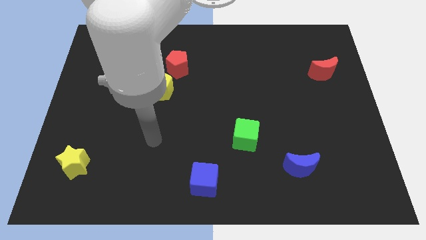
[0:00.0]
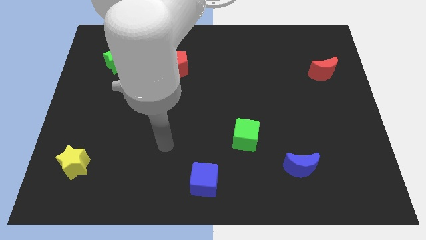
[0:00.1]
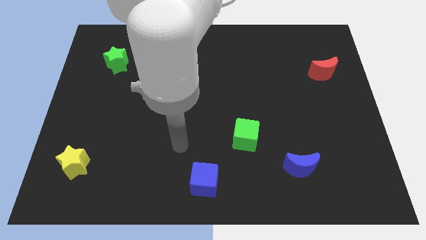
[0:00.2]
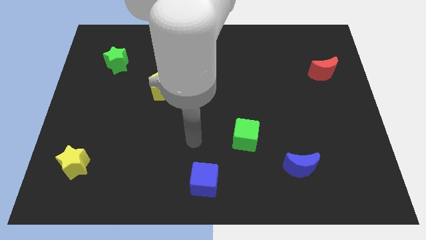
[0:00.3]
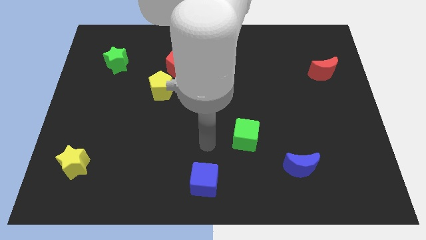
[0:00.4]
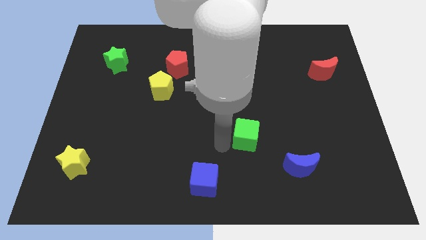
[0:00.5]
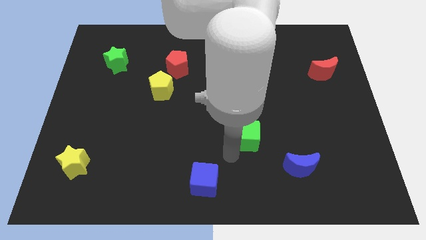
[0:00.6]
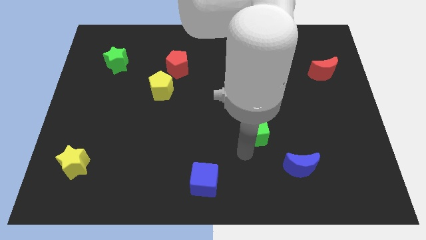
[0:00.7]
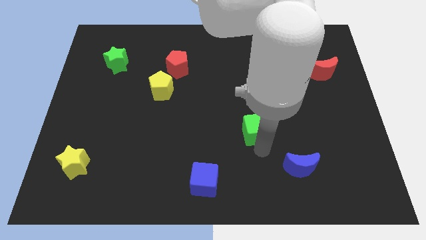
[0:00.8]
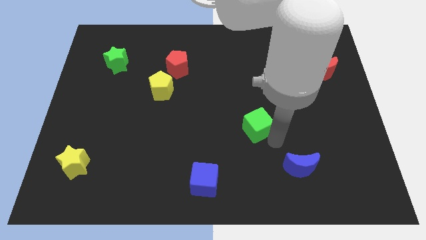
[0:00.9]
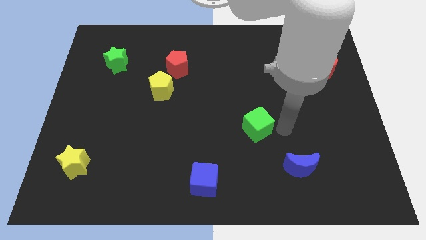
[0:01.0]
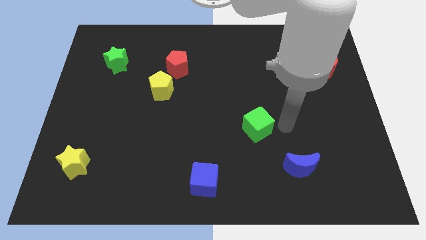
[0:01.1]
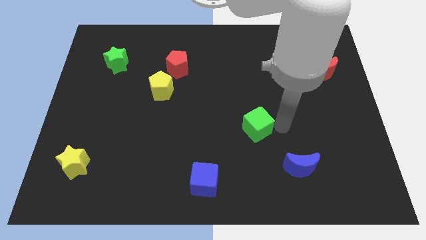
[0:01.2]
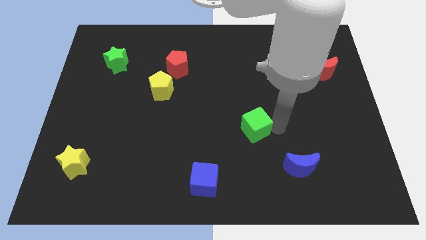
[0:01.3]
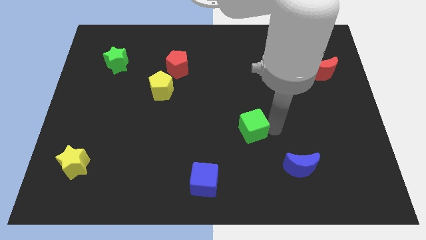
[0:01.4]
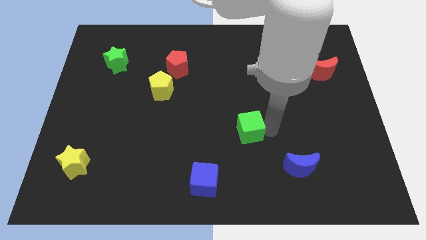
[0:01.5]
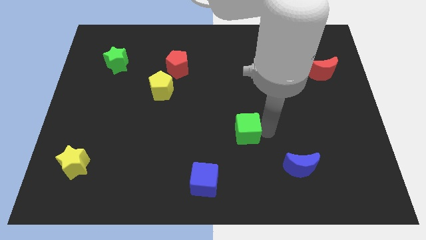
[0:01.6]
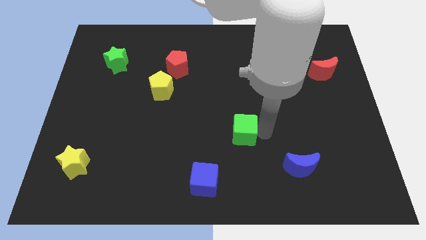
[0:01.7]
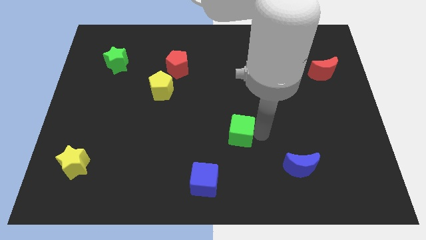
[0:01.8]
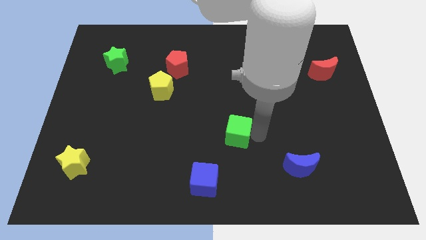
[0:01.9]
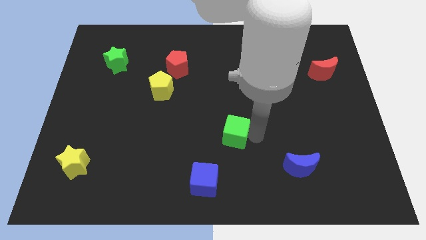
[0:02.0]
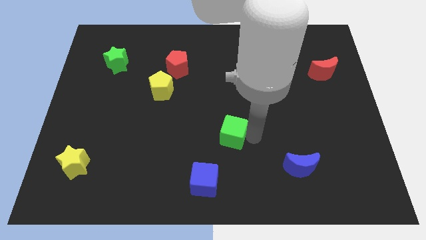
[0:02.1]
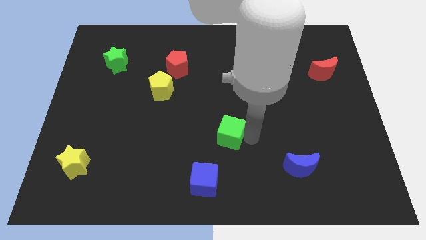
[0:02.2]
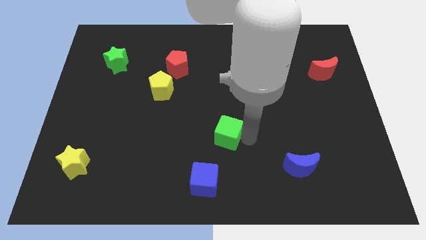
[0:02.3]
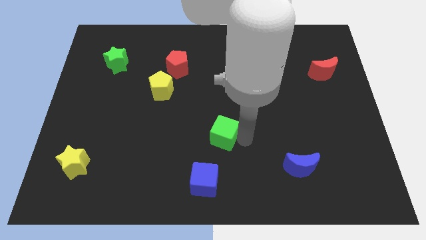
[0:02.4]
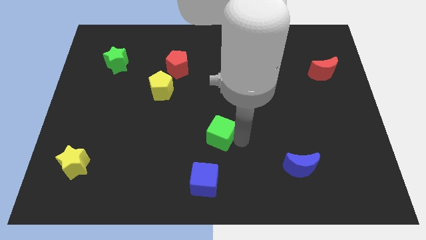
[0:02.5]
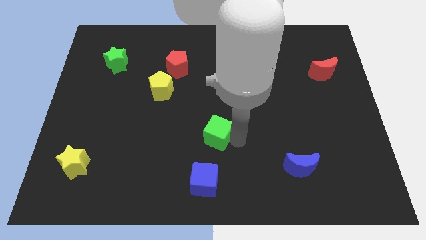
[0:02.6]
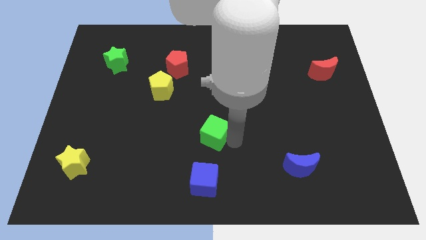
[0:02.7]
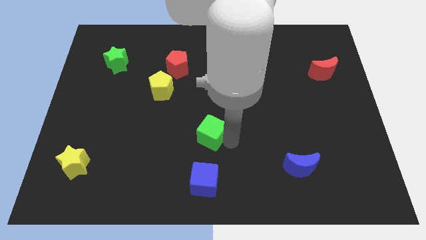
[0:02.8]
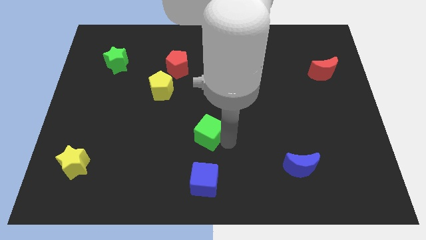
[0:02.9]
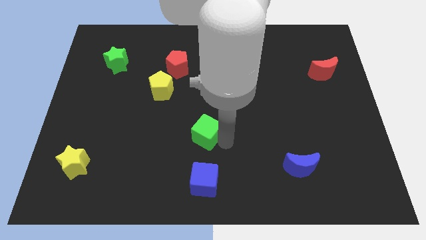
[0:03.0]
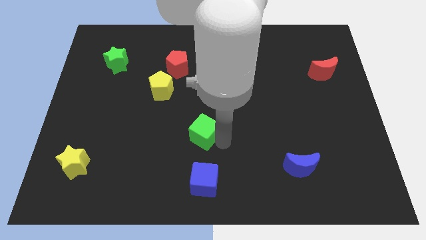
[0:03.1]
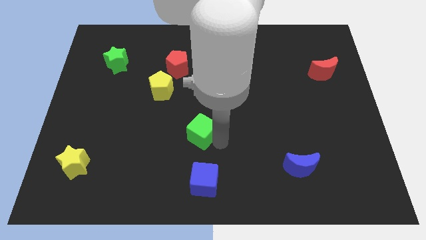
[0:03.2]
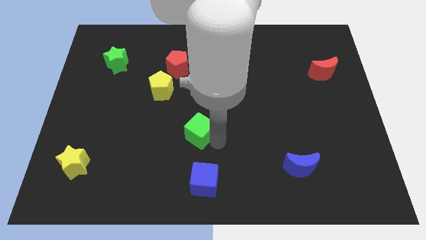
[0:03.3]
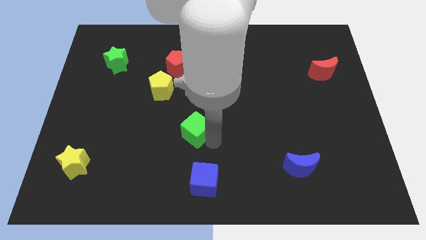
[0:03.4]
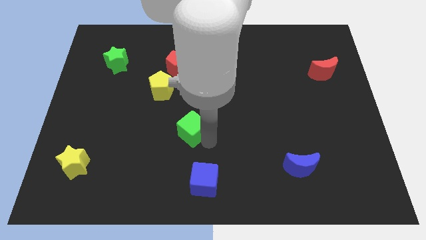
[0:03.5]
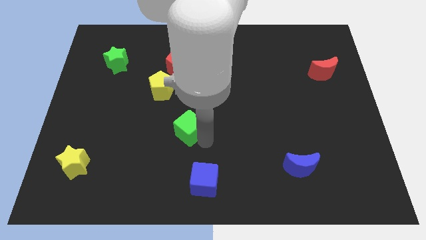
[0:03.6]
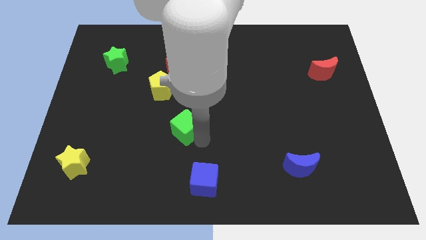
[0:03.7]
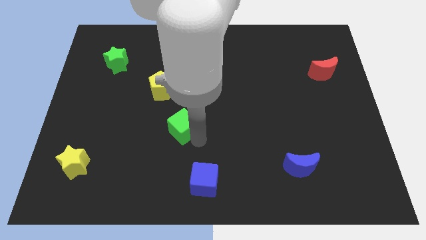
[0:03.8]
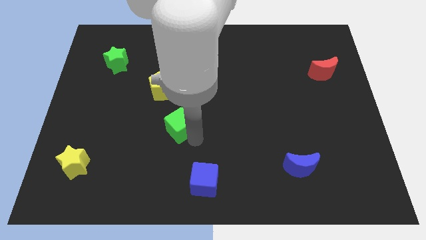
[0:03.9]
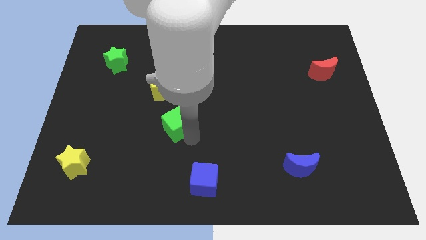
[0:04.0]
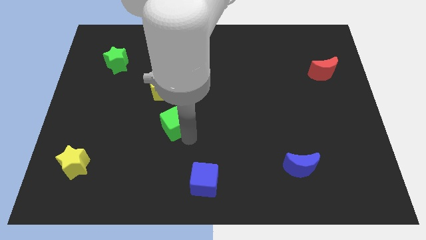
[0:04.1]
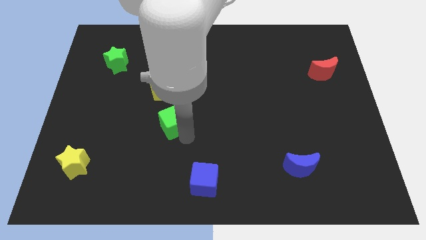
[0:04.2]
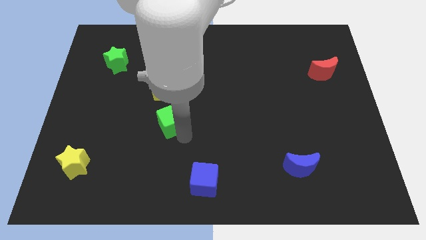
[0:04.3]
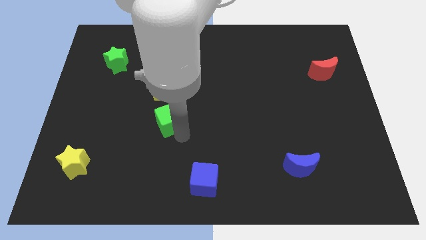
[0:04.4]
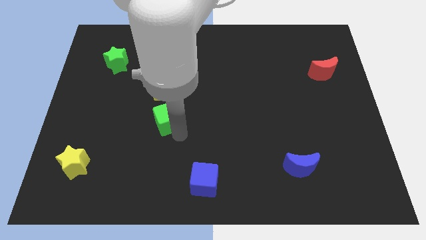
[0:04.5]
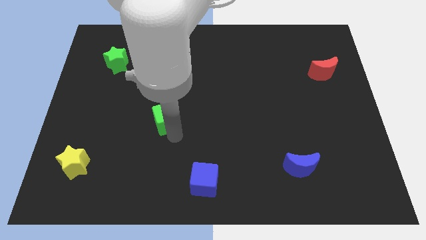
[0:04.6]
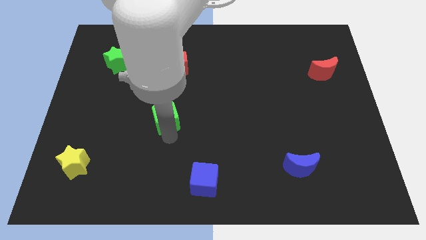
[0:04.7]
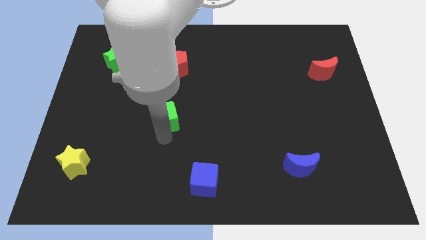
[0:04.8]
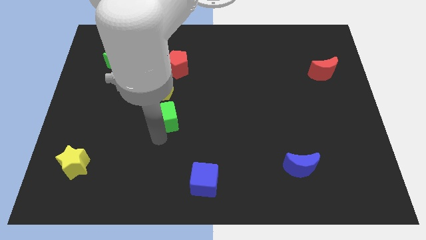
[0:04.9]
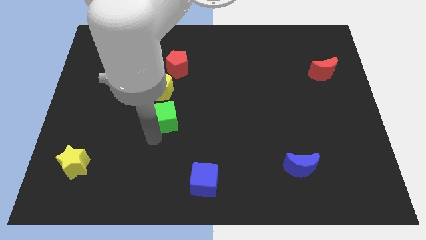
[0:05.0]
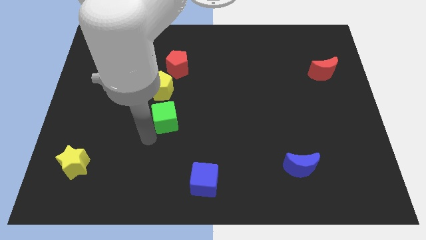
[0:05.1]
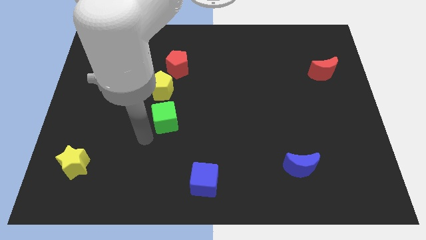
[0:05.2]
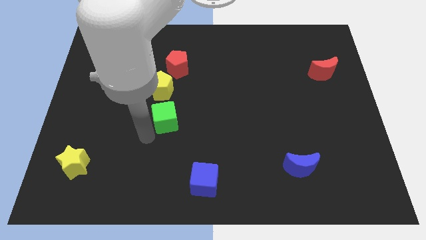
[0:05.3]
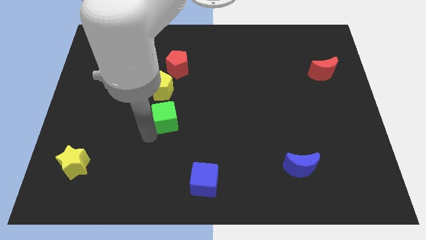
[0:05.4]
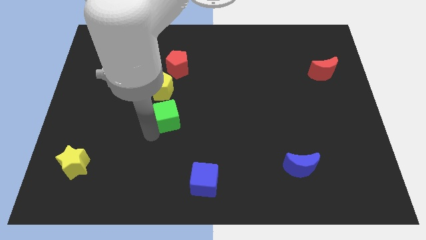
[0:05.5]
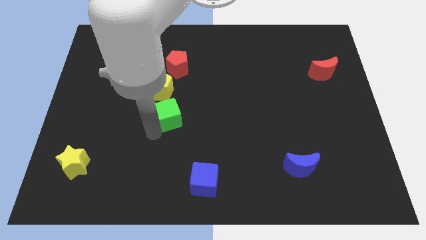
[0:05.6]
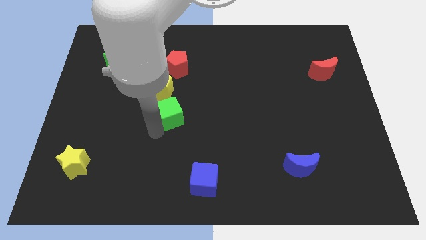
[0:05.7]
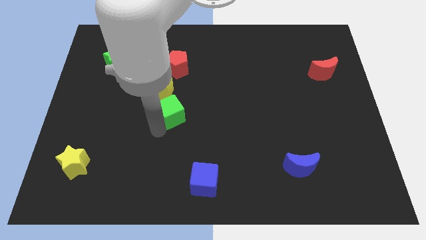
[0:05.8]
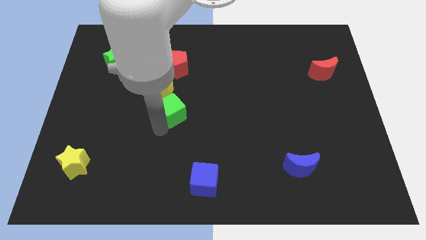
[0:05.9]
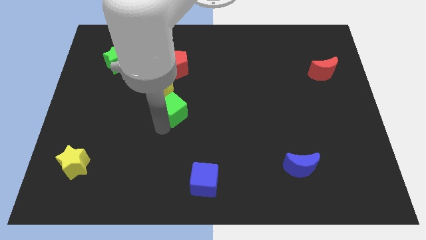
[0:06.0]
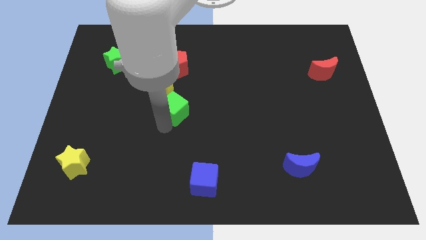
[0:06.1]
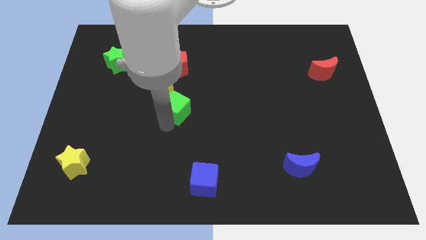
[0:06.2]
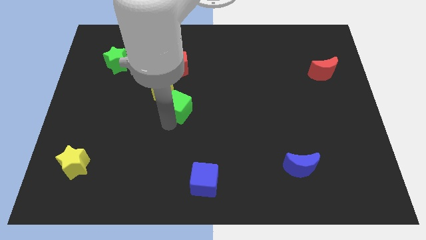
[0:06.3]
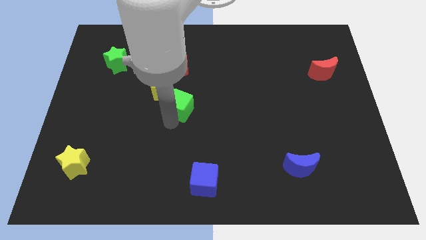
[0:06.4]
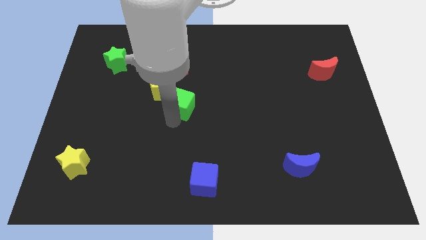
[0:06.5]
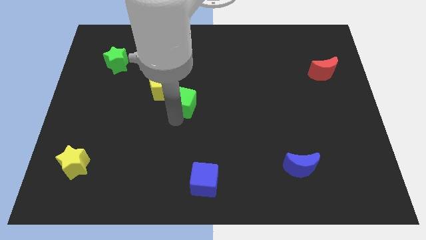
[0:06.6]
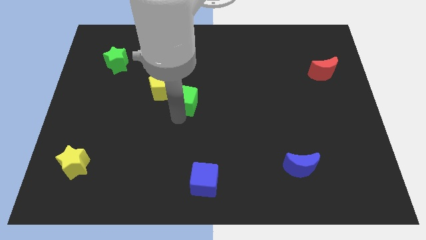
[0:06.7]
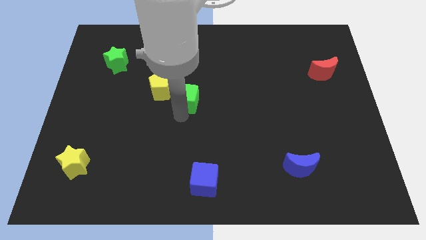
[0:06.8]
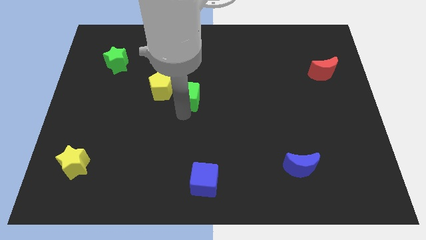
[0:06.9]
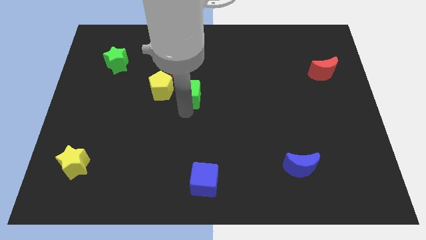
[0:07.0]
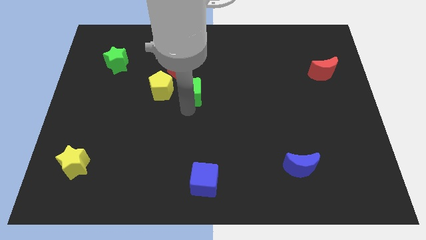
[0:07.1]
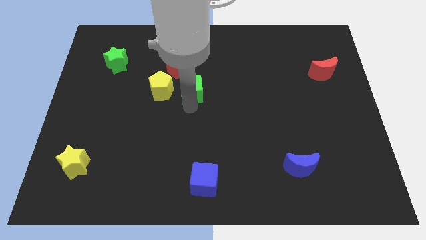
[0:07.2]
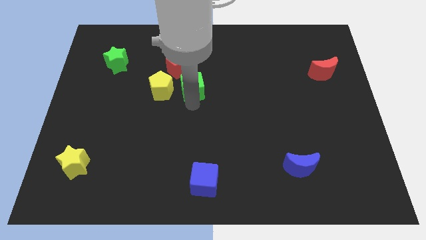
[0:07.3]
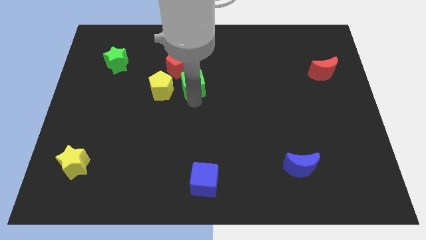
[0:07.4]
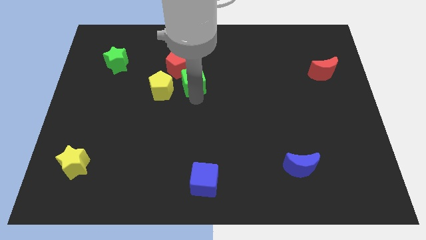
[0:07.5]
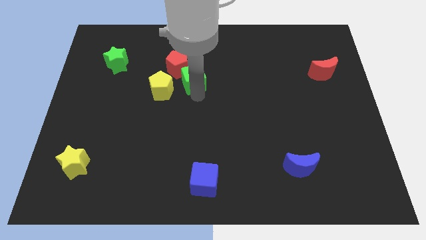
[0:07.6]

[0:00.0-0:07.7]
push the green cube up and to the left diagonally
